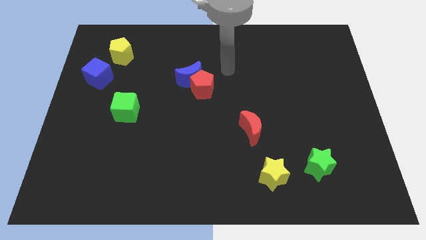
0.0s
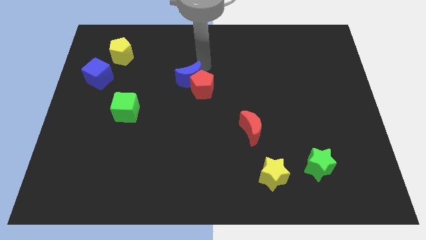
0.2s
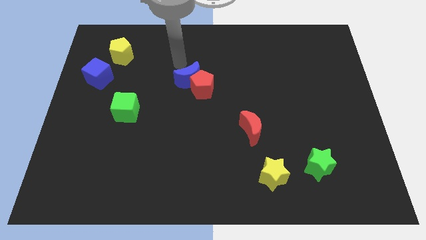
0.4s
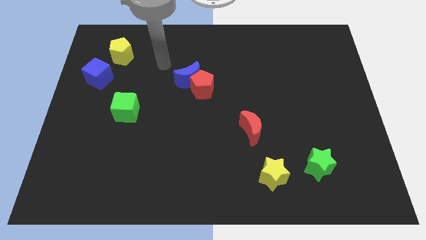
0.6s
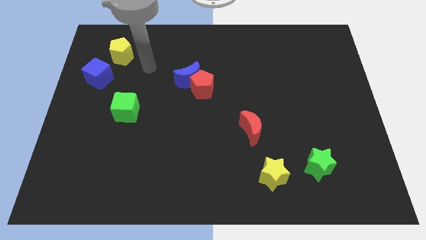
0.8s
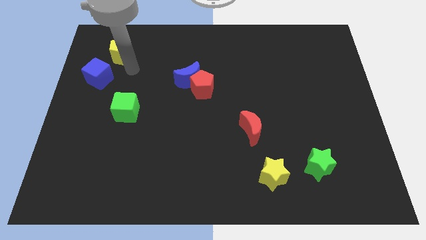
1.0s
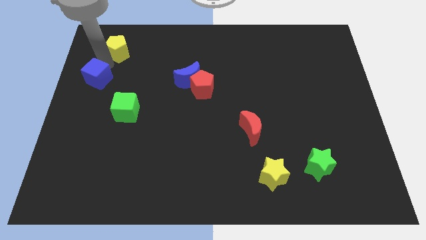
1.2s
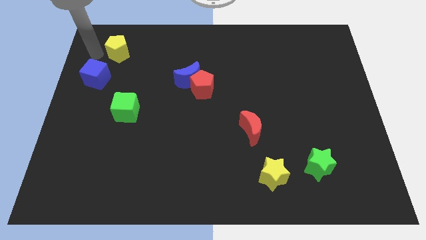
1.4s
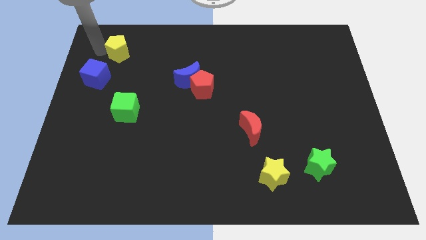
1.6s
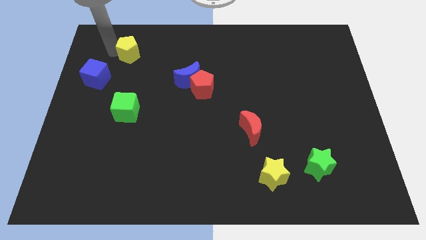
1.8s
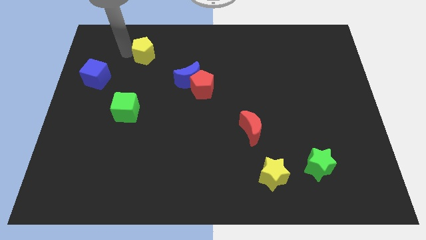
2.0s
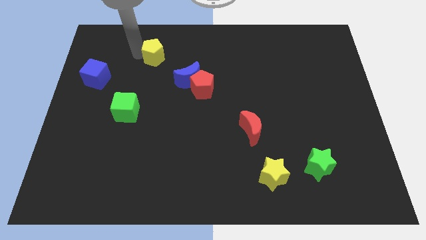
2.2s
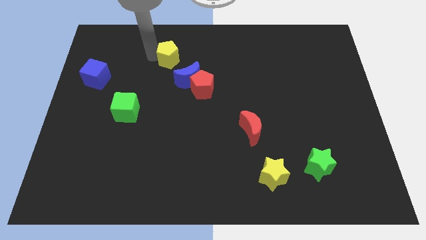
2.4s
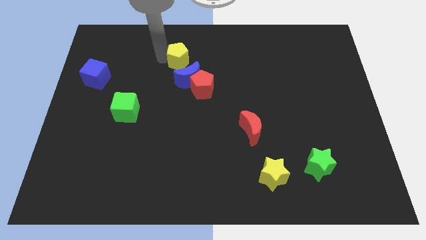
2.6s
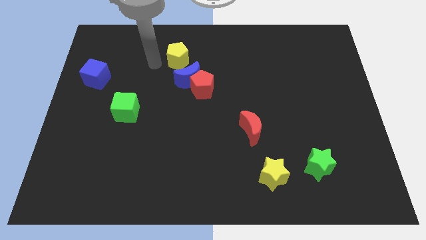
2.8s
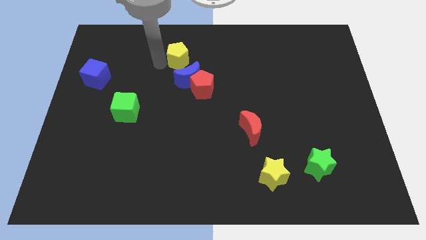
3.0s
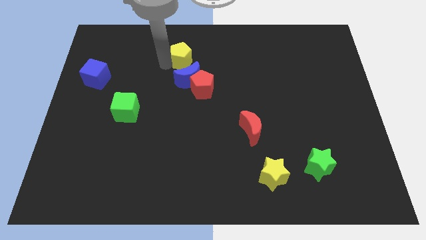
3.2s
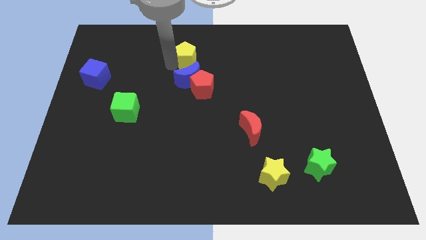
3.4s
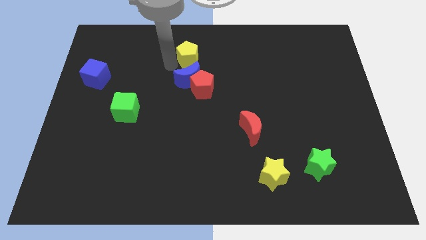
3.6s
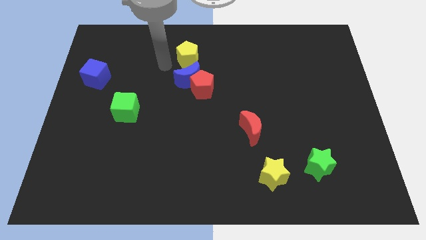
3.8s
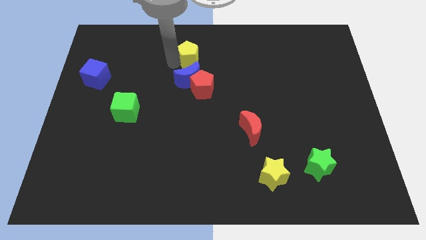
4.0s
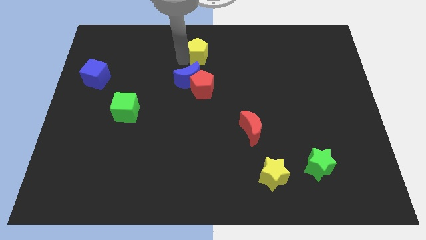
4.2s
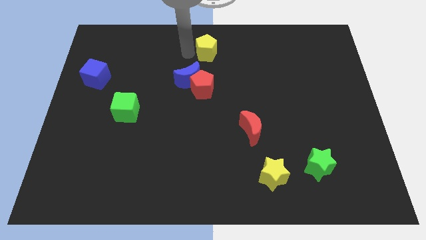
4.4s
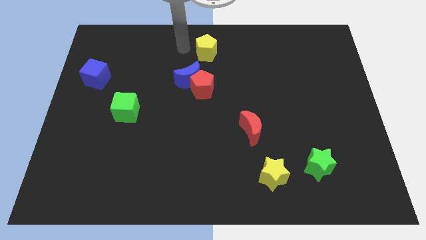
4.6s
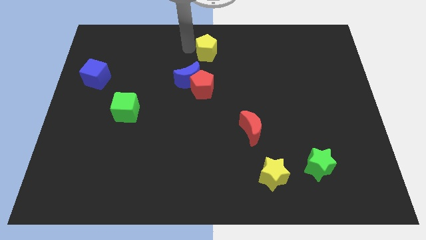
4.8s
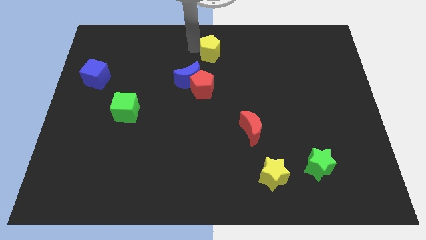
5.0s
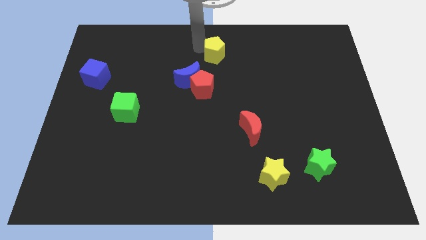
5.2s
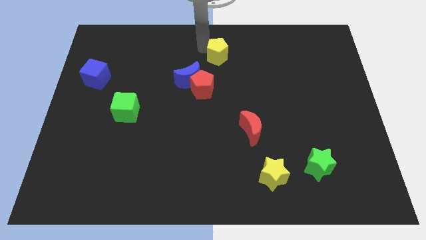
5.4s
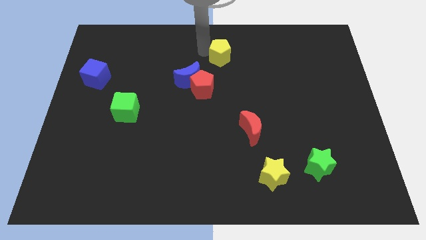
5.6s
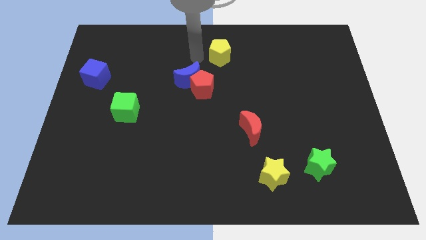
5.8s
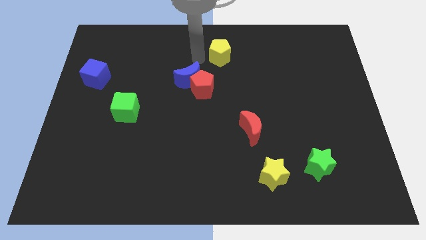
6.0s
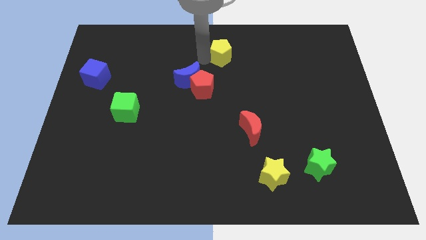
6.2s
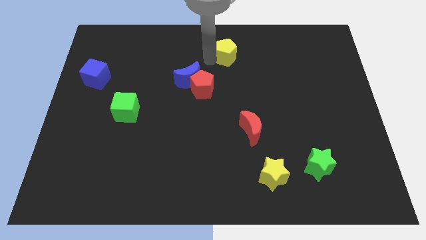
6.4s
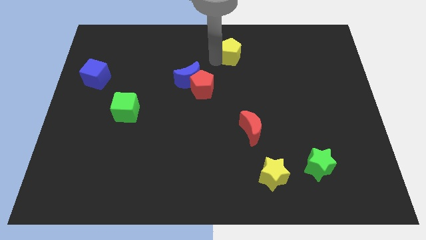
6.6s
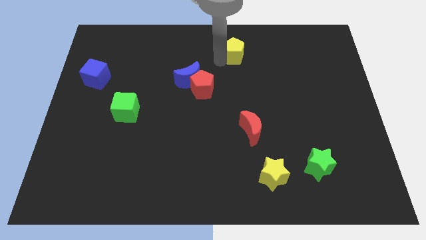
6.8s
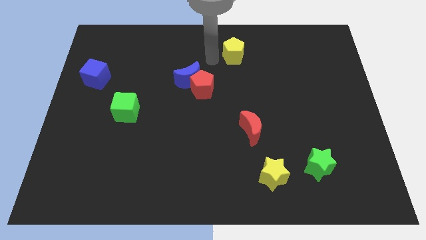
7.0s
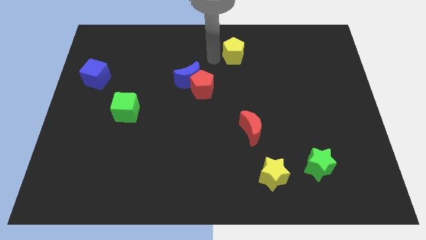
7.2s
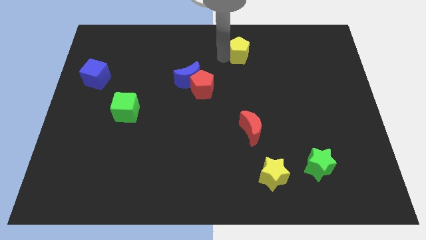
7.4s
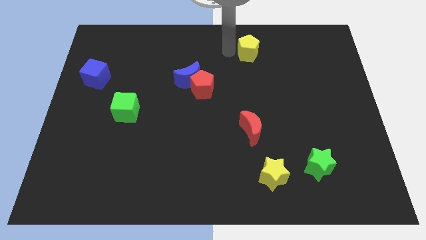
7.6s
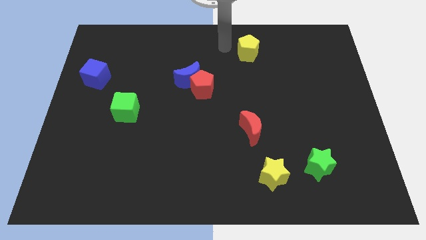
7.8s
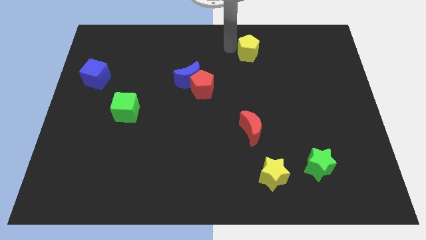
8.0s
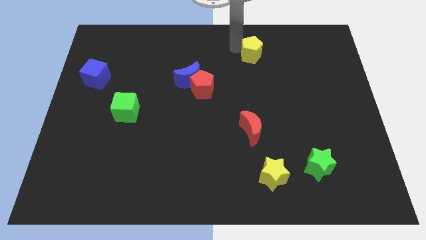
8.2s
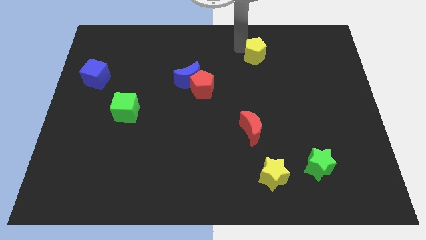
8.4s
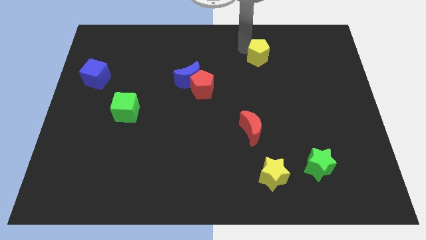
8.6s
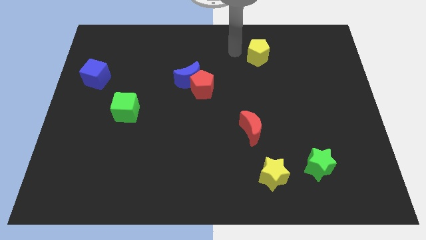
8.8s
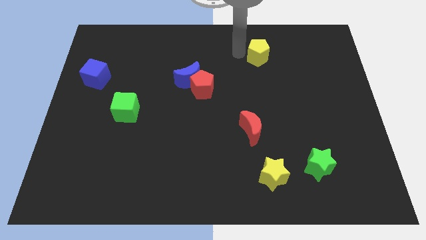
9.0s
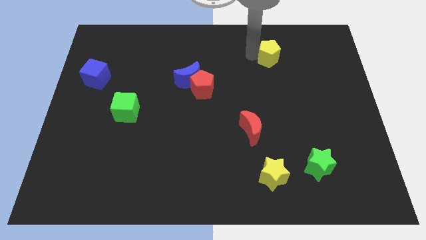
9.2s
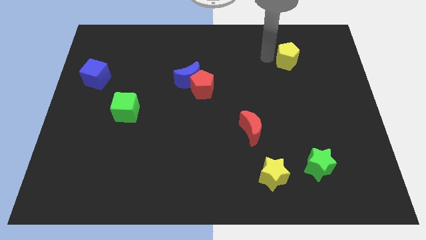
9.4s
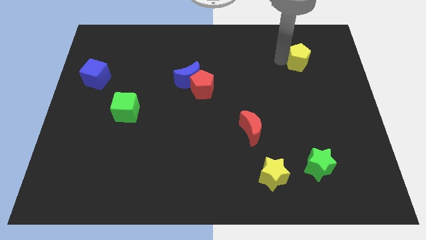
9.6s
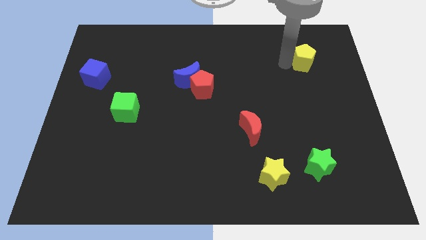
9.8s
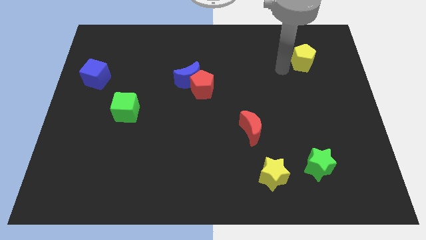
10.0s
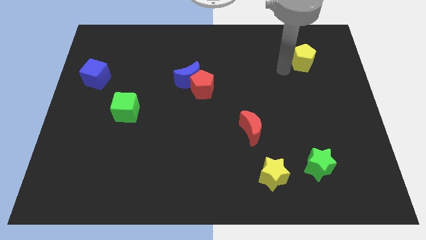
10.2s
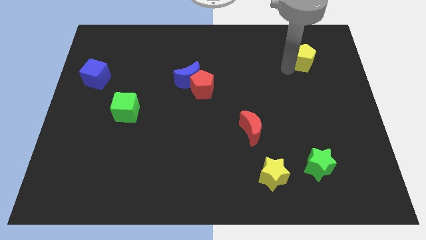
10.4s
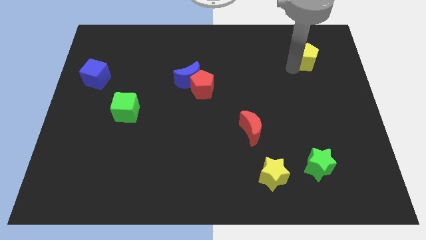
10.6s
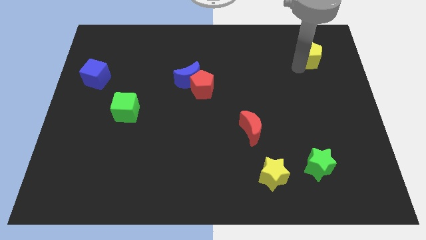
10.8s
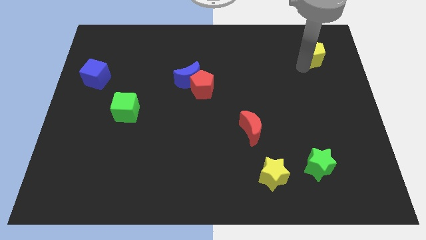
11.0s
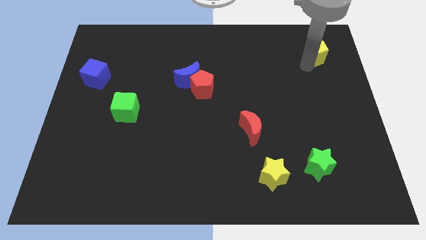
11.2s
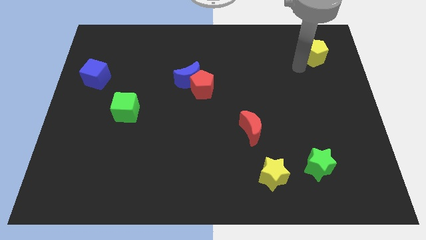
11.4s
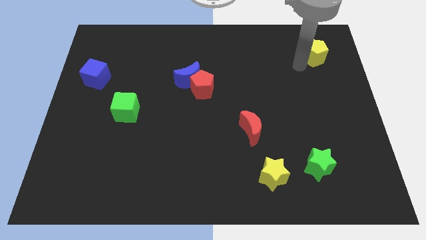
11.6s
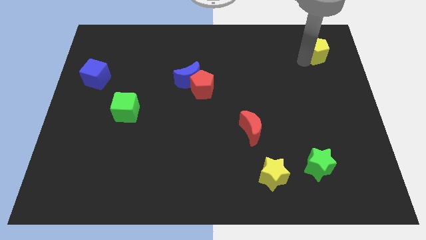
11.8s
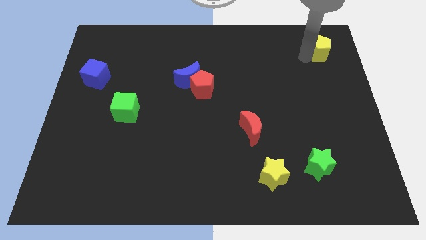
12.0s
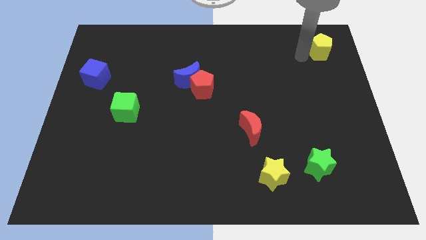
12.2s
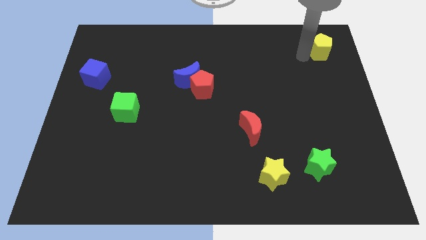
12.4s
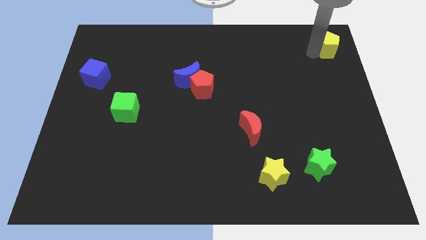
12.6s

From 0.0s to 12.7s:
move the yellow pentagon to the upper right corner
